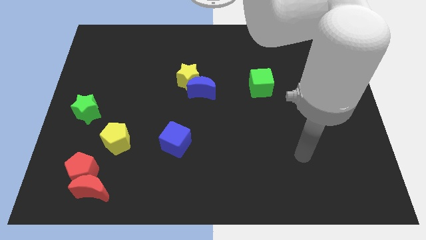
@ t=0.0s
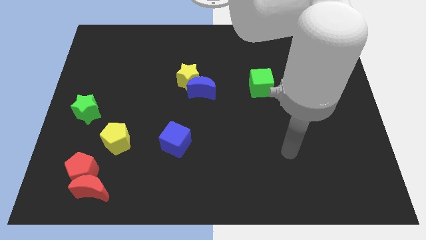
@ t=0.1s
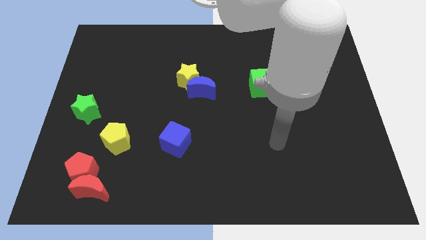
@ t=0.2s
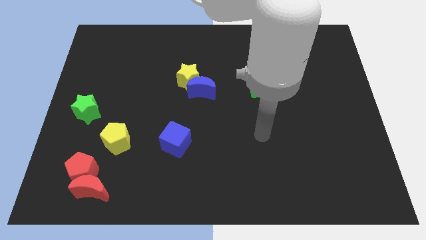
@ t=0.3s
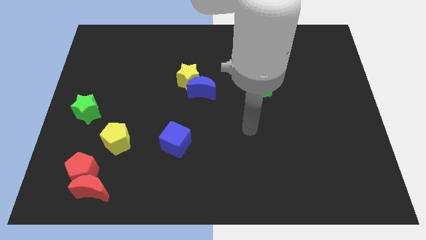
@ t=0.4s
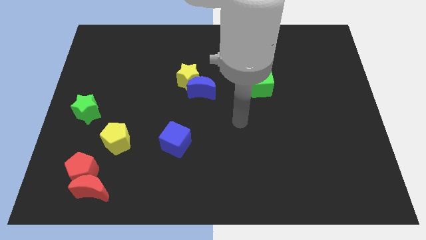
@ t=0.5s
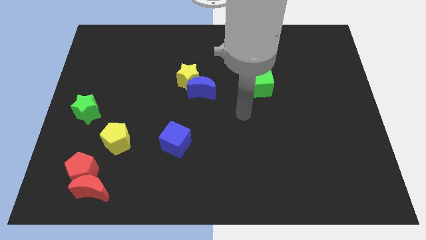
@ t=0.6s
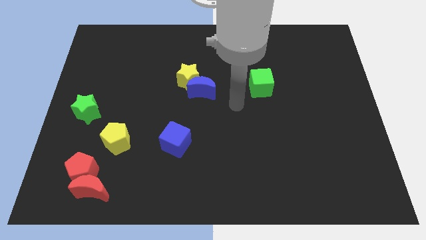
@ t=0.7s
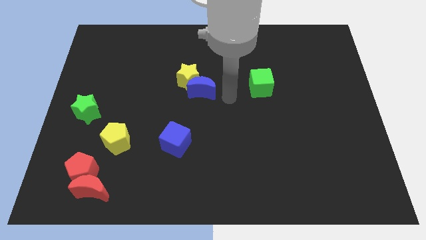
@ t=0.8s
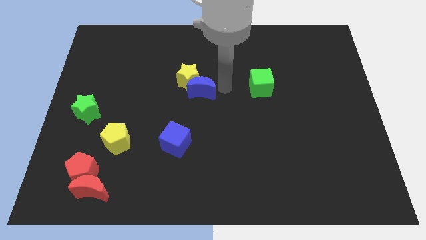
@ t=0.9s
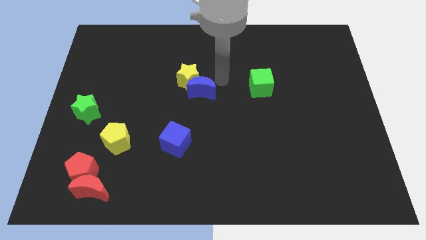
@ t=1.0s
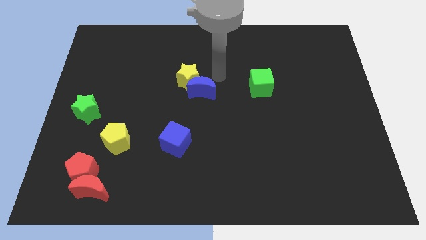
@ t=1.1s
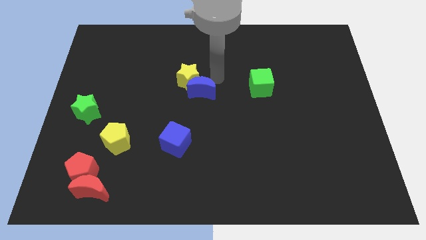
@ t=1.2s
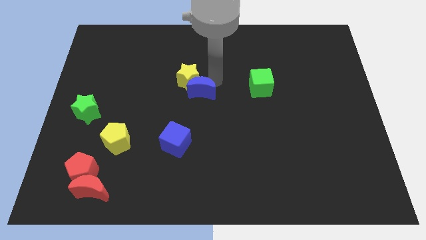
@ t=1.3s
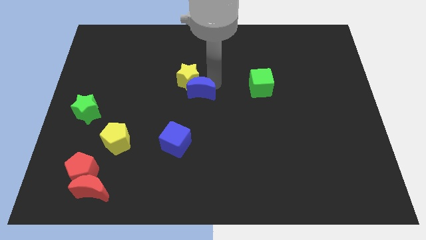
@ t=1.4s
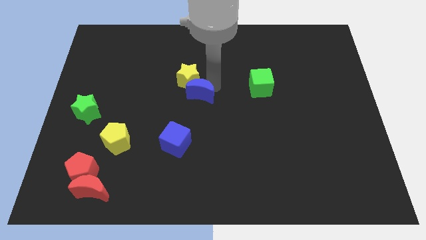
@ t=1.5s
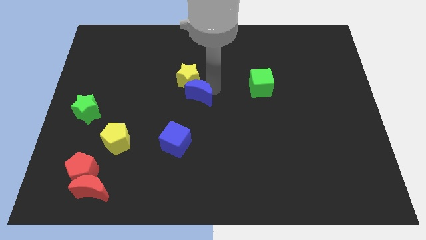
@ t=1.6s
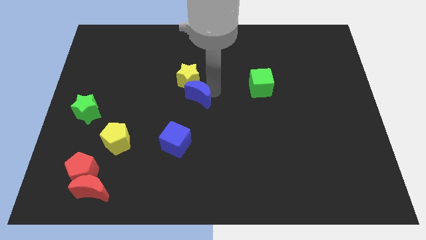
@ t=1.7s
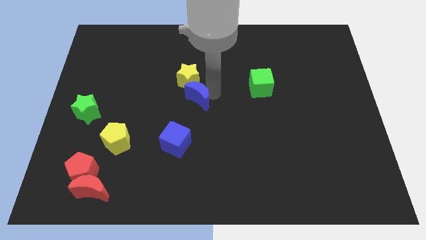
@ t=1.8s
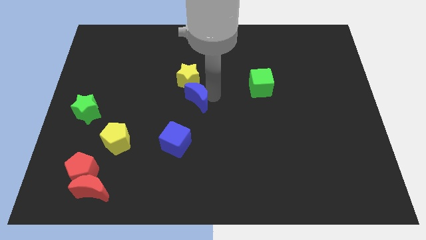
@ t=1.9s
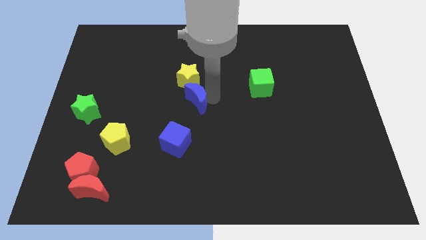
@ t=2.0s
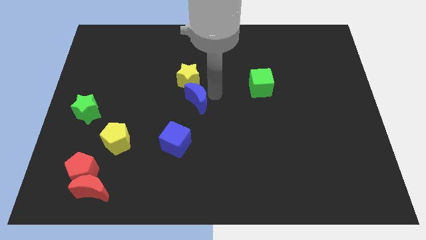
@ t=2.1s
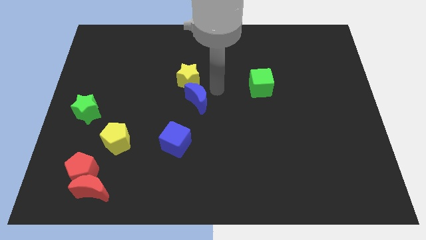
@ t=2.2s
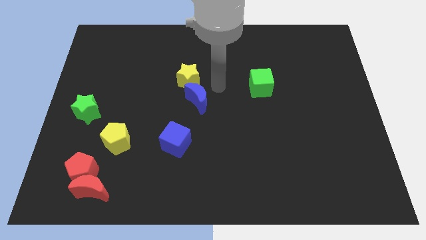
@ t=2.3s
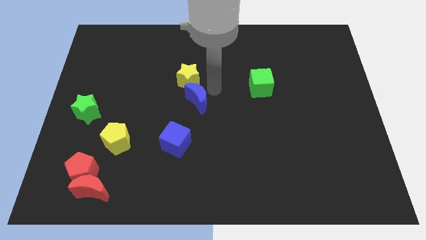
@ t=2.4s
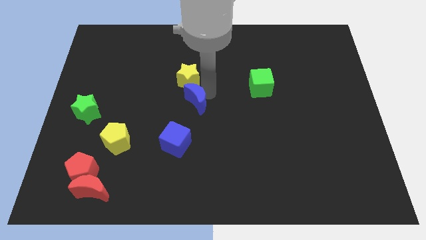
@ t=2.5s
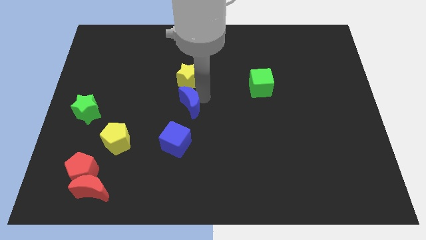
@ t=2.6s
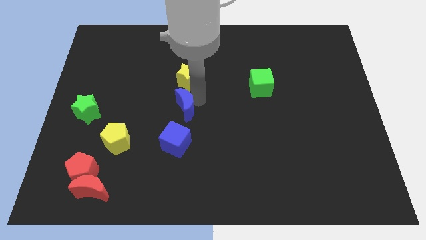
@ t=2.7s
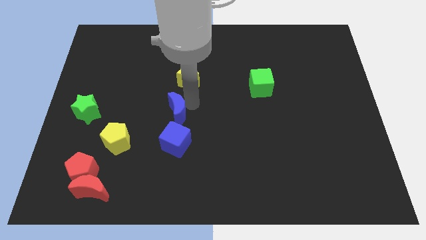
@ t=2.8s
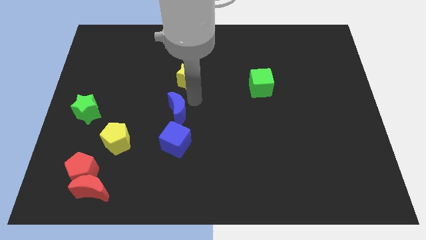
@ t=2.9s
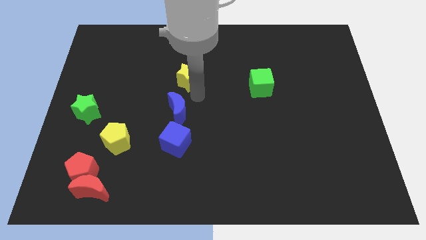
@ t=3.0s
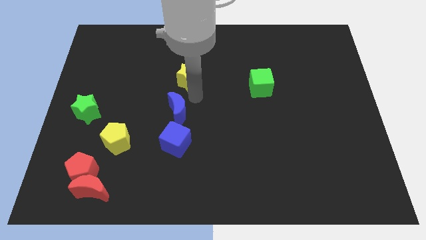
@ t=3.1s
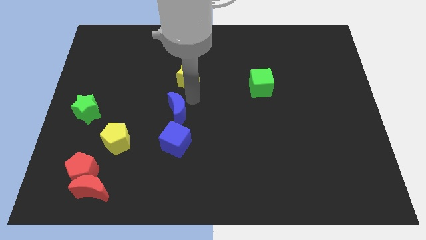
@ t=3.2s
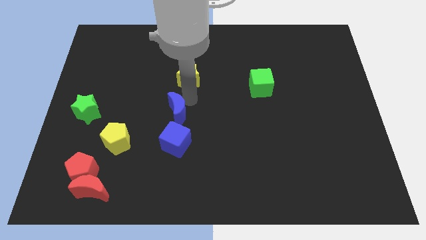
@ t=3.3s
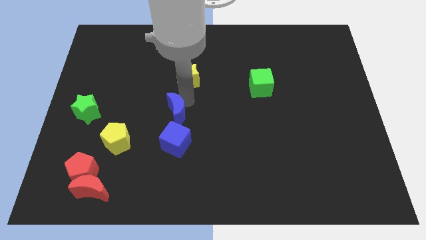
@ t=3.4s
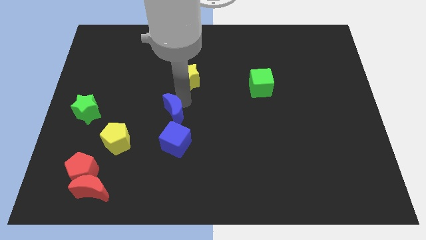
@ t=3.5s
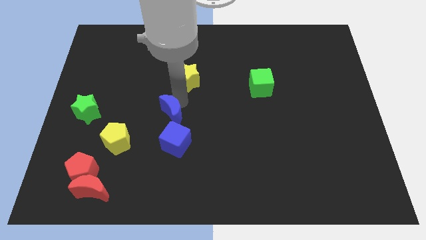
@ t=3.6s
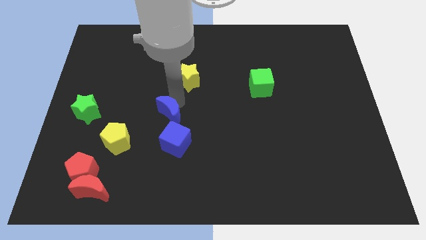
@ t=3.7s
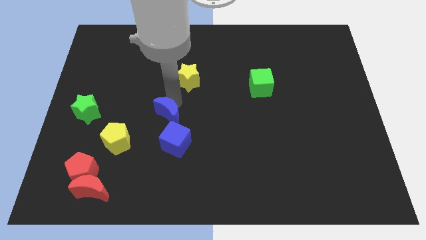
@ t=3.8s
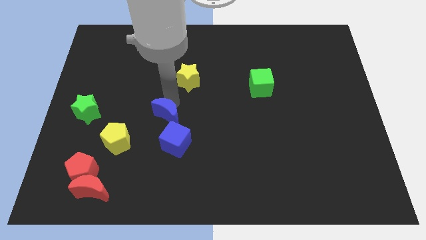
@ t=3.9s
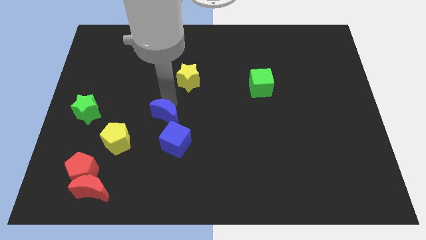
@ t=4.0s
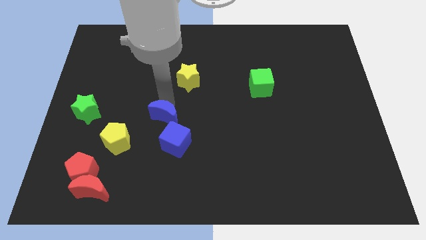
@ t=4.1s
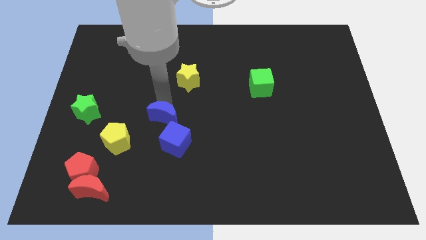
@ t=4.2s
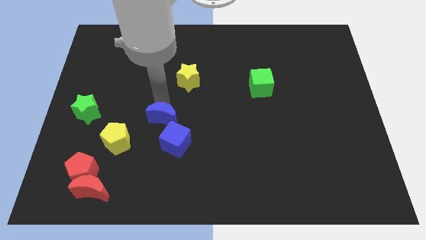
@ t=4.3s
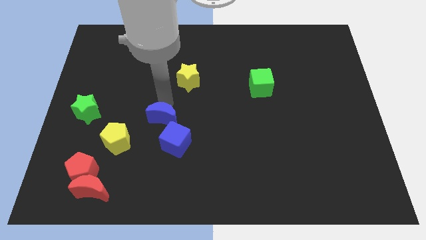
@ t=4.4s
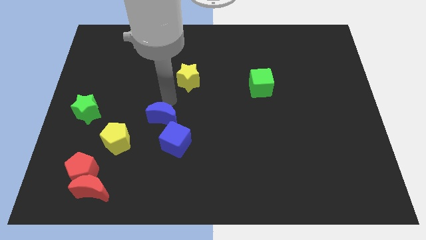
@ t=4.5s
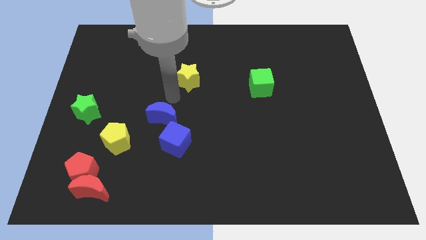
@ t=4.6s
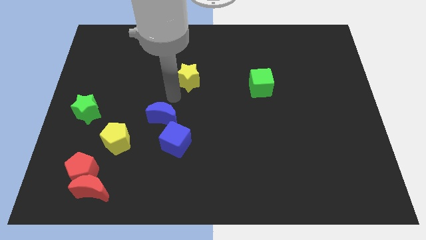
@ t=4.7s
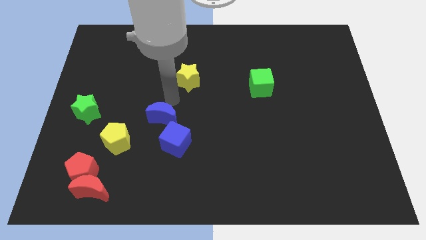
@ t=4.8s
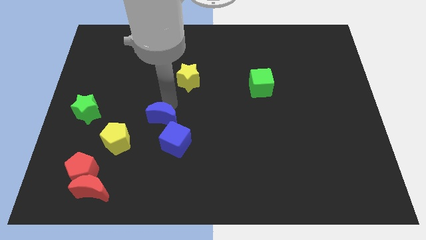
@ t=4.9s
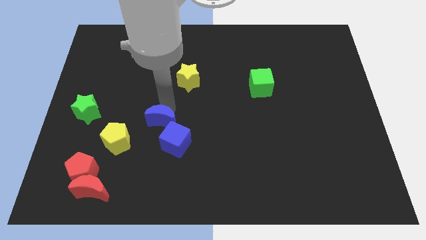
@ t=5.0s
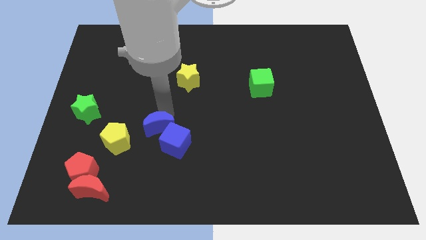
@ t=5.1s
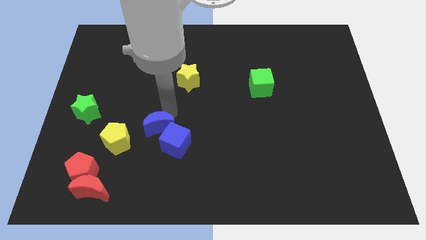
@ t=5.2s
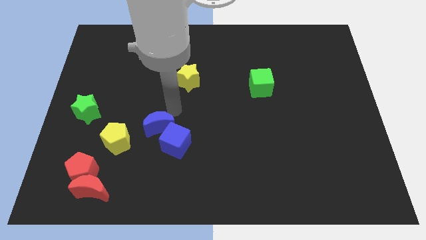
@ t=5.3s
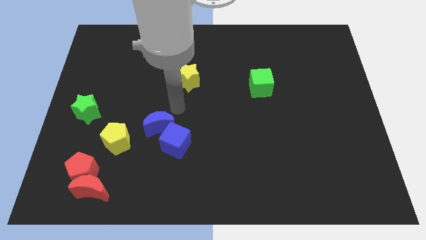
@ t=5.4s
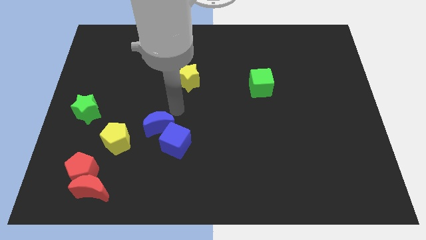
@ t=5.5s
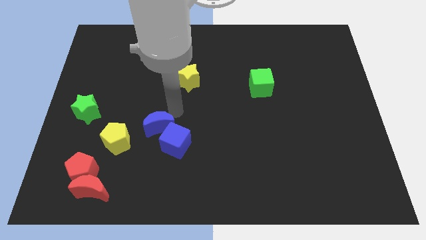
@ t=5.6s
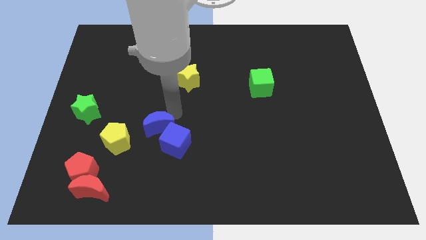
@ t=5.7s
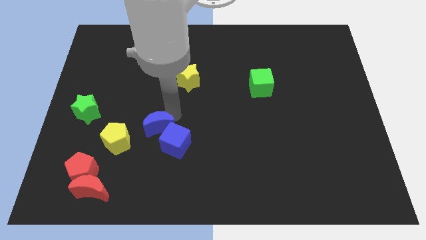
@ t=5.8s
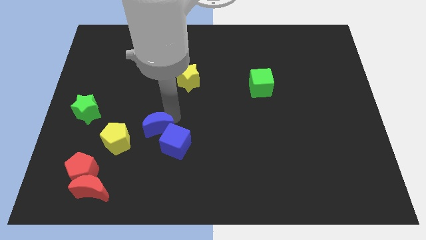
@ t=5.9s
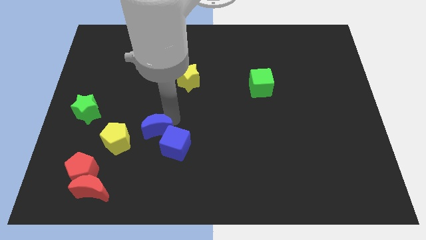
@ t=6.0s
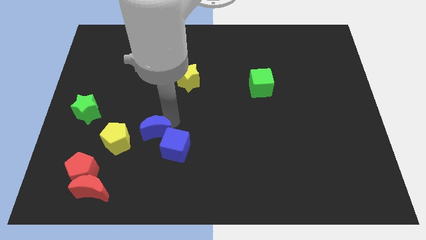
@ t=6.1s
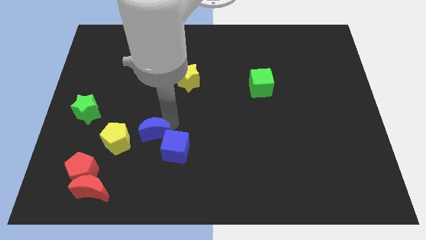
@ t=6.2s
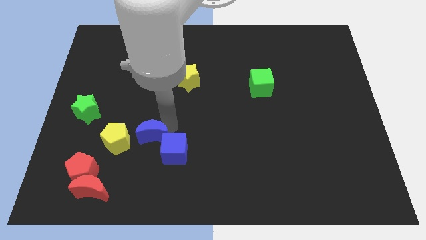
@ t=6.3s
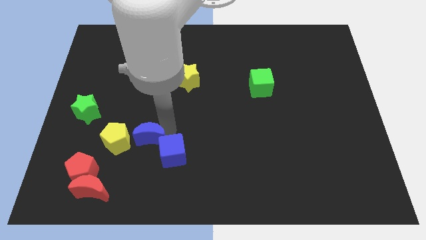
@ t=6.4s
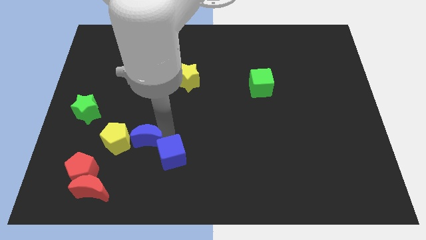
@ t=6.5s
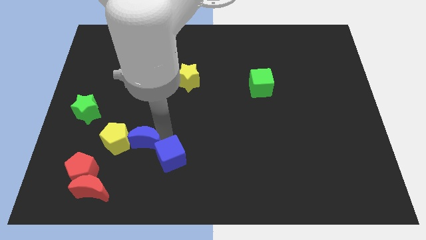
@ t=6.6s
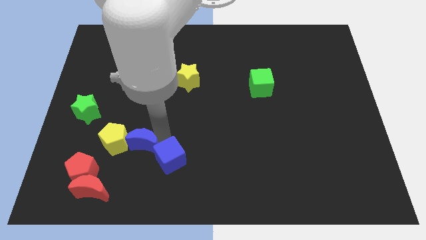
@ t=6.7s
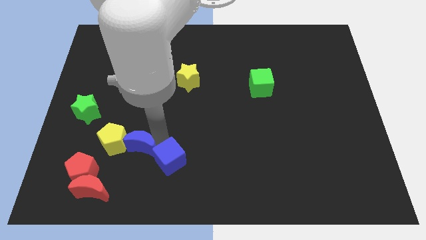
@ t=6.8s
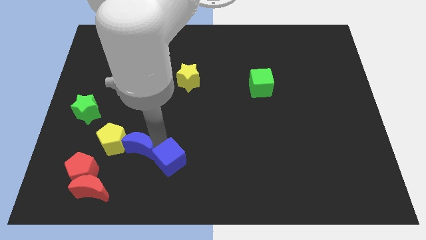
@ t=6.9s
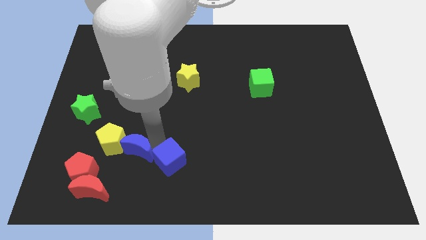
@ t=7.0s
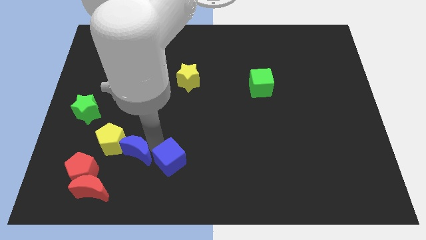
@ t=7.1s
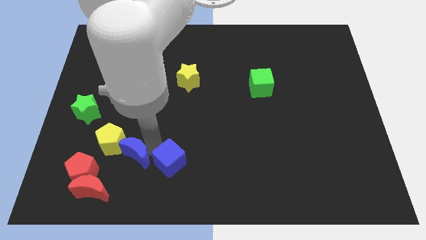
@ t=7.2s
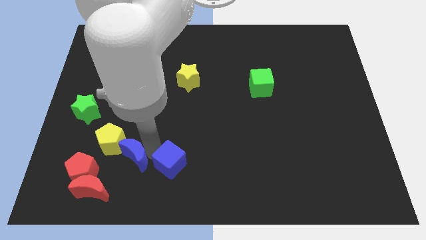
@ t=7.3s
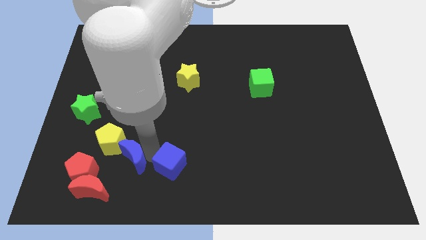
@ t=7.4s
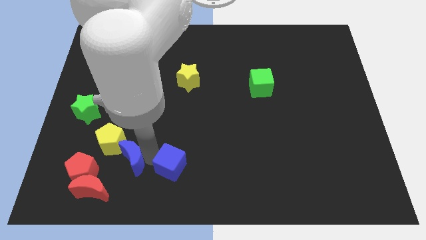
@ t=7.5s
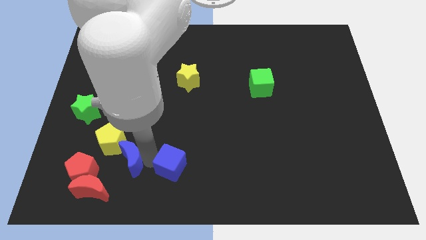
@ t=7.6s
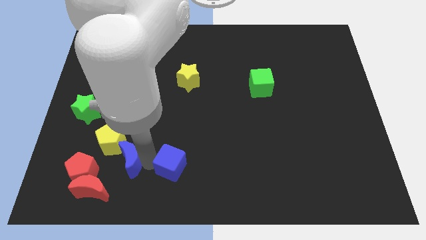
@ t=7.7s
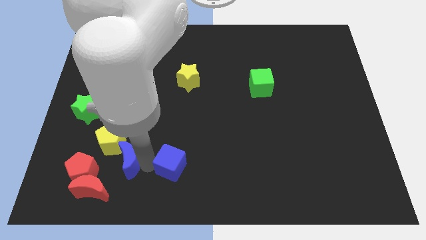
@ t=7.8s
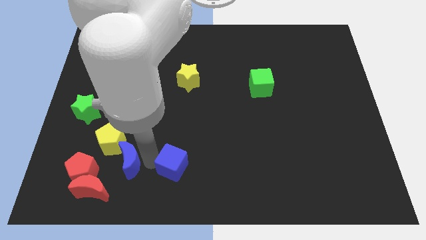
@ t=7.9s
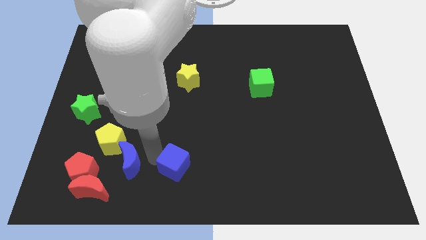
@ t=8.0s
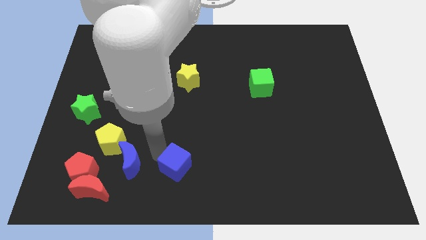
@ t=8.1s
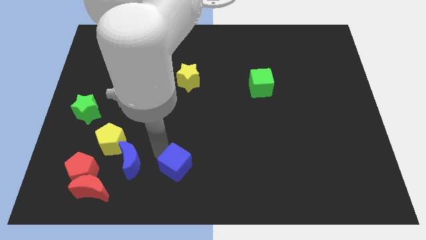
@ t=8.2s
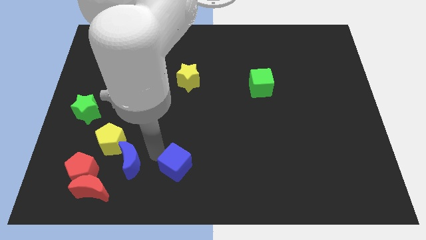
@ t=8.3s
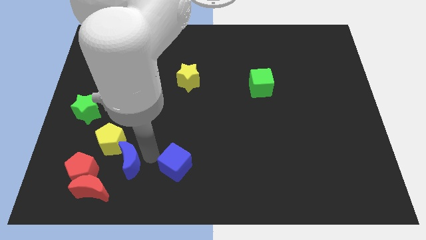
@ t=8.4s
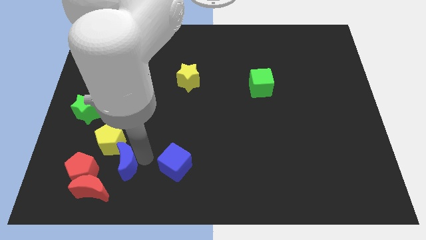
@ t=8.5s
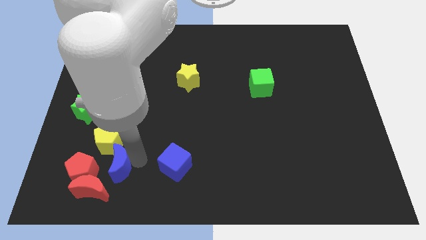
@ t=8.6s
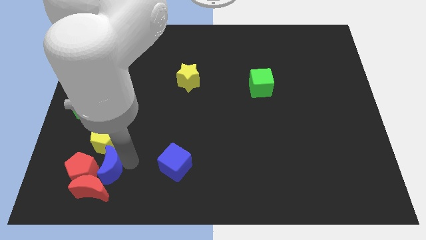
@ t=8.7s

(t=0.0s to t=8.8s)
push the blue moon towards the red moon
